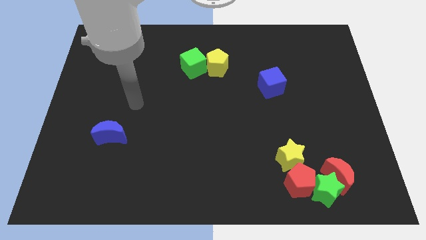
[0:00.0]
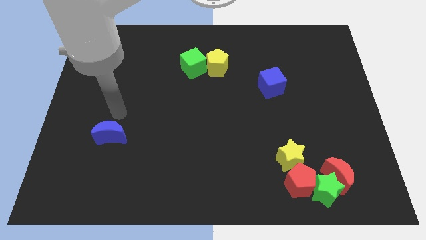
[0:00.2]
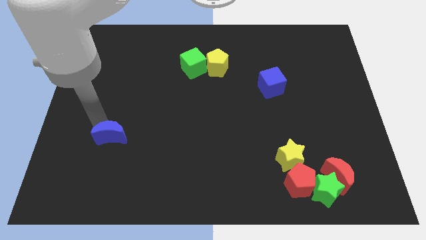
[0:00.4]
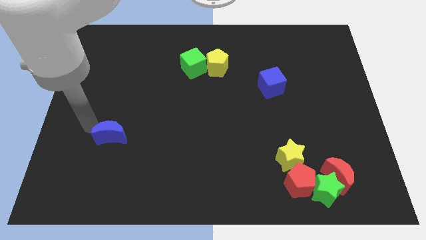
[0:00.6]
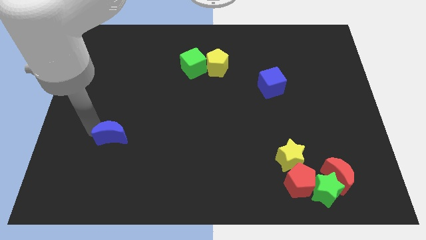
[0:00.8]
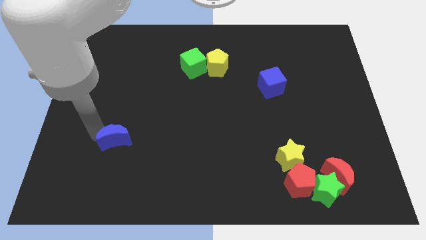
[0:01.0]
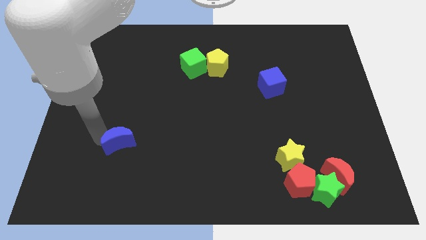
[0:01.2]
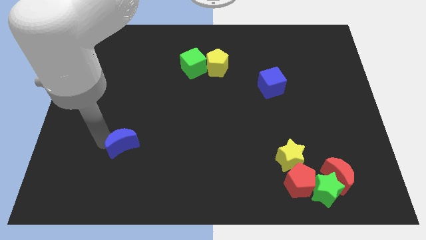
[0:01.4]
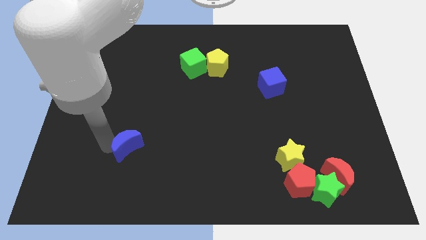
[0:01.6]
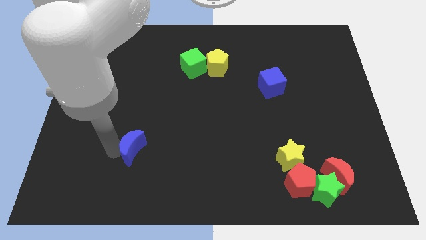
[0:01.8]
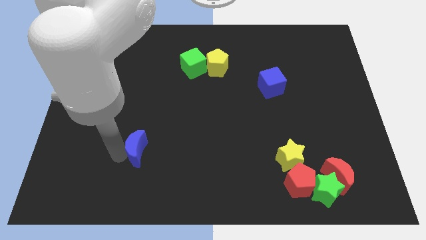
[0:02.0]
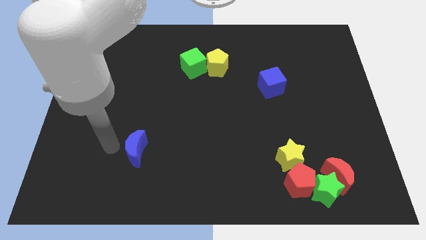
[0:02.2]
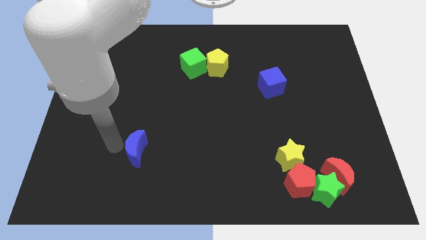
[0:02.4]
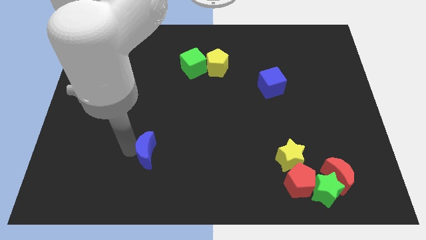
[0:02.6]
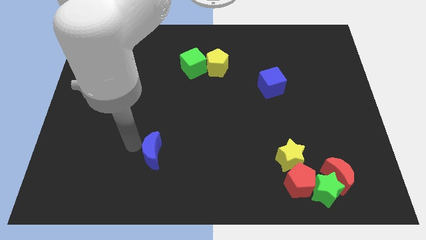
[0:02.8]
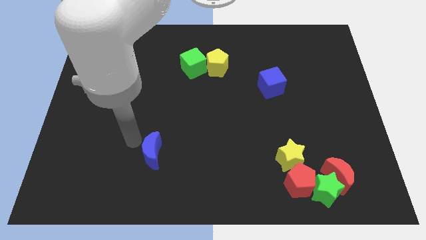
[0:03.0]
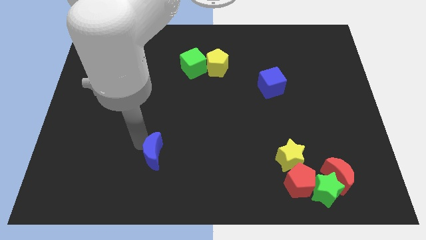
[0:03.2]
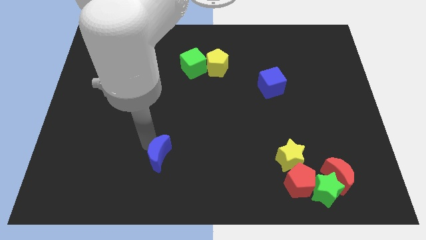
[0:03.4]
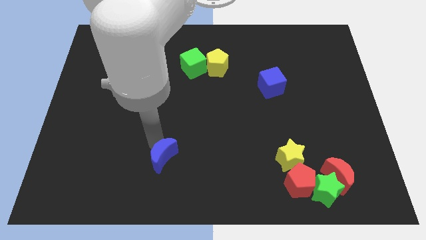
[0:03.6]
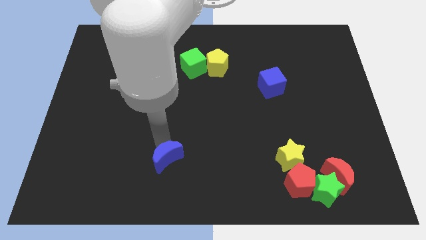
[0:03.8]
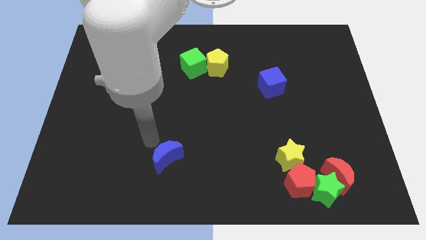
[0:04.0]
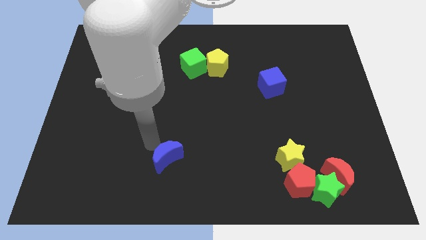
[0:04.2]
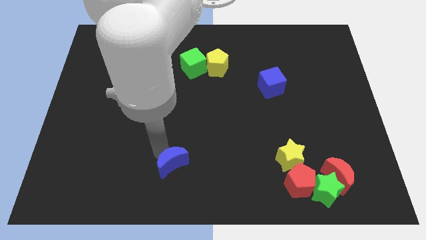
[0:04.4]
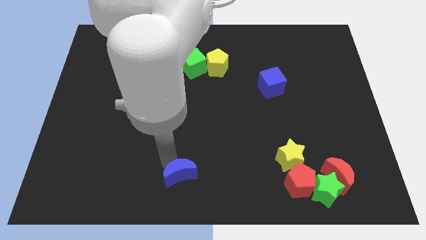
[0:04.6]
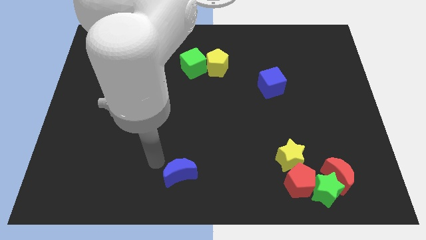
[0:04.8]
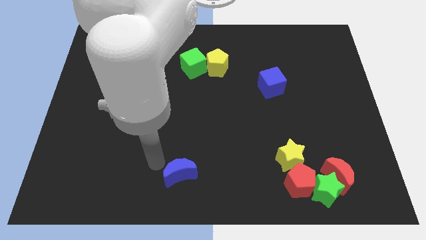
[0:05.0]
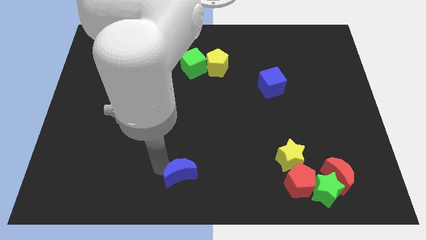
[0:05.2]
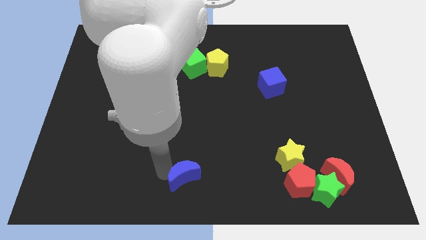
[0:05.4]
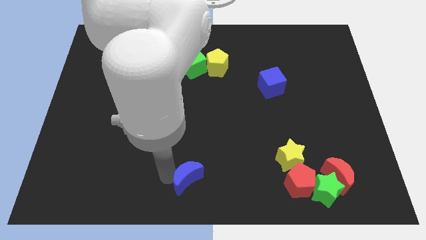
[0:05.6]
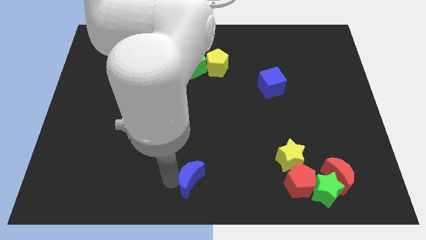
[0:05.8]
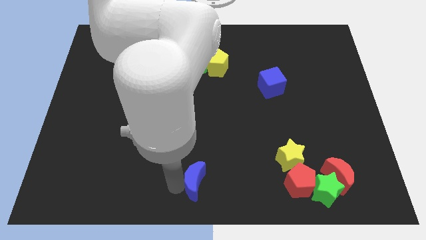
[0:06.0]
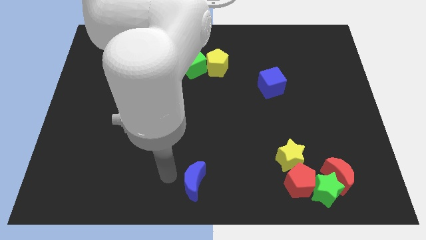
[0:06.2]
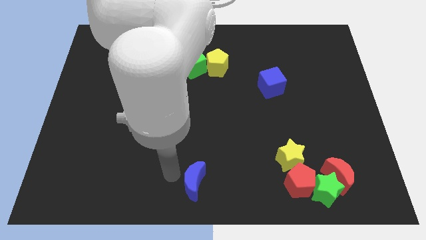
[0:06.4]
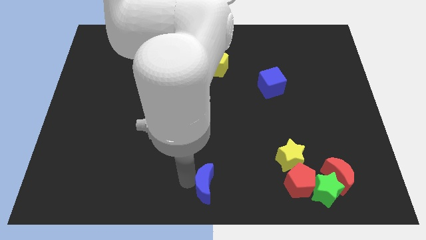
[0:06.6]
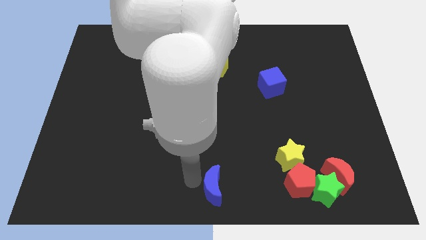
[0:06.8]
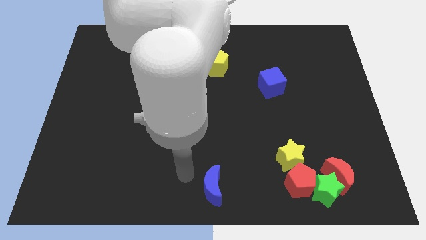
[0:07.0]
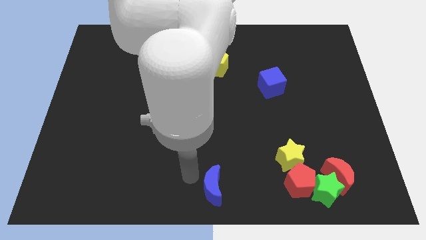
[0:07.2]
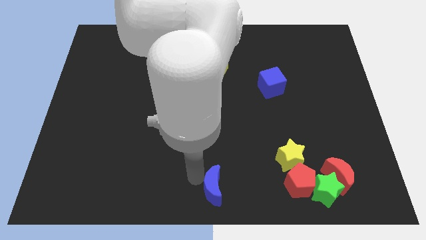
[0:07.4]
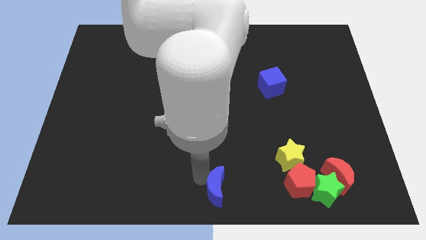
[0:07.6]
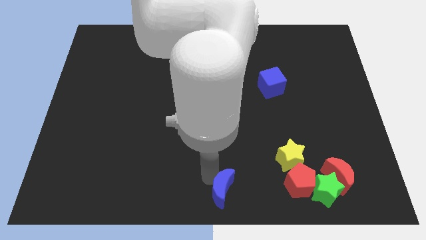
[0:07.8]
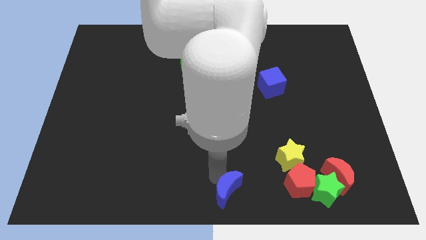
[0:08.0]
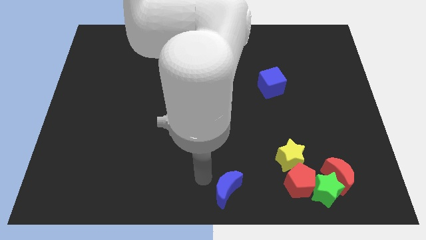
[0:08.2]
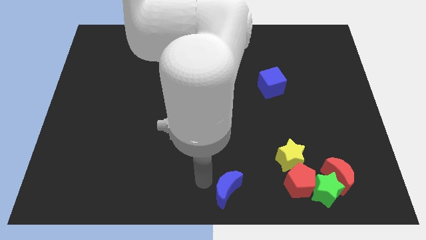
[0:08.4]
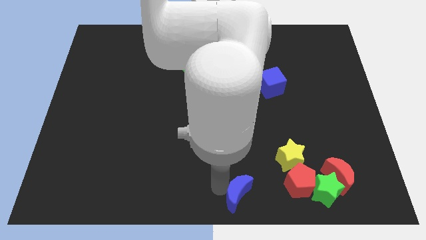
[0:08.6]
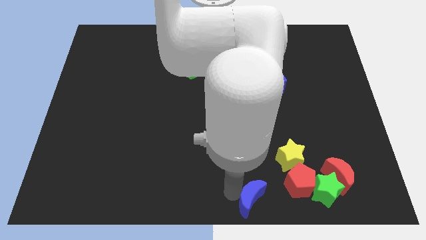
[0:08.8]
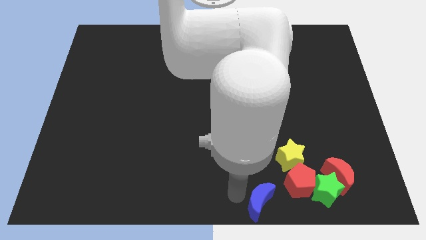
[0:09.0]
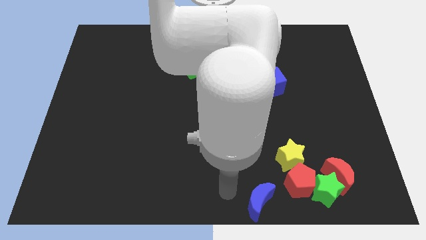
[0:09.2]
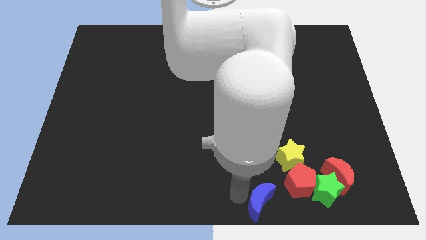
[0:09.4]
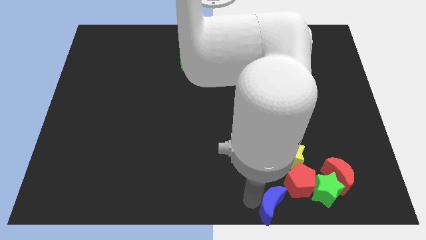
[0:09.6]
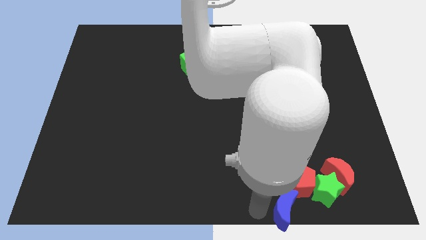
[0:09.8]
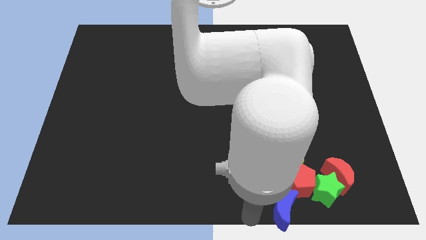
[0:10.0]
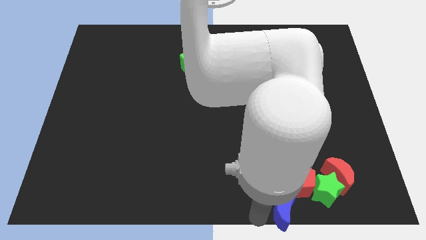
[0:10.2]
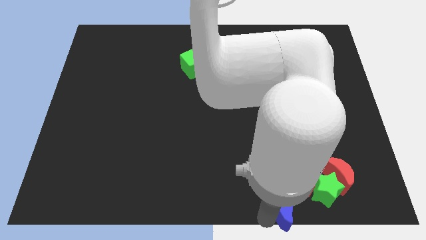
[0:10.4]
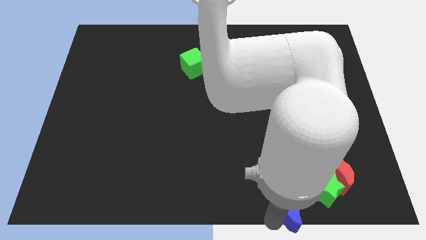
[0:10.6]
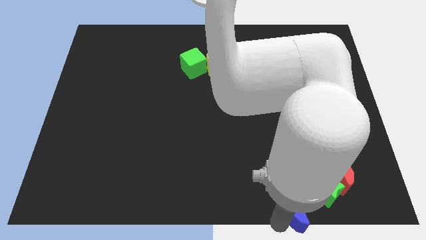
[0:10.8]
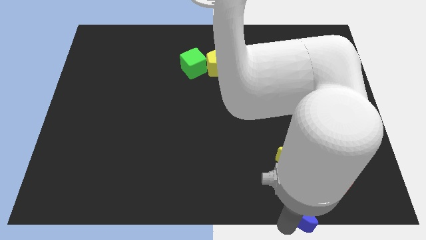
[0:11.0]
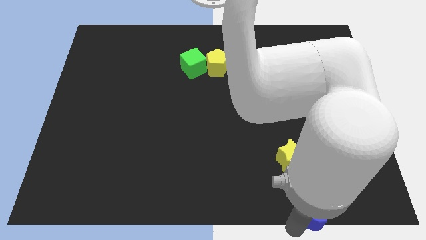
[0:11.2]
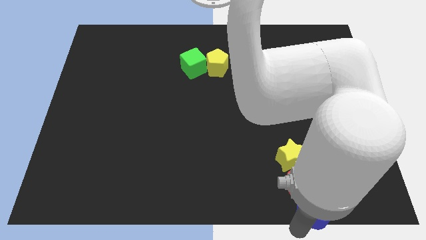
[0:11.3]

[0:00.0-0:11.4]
put the blue moon close to the green star
